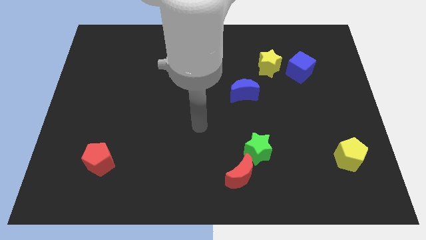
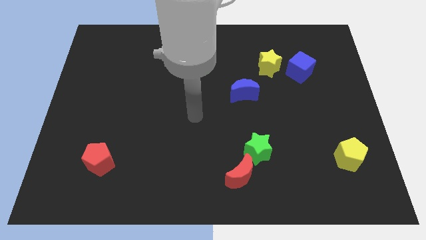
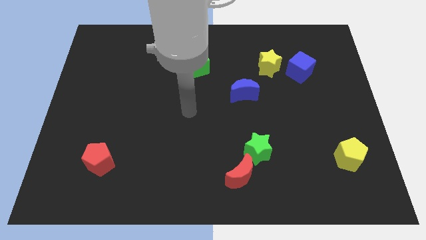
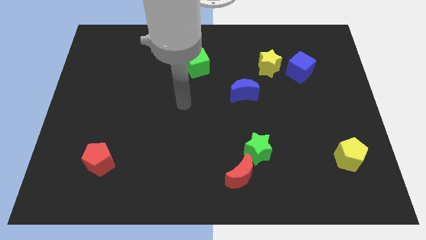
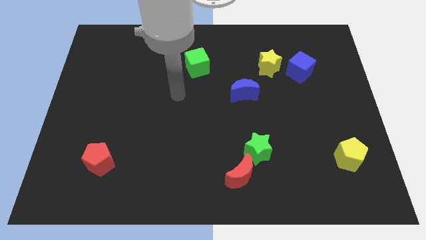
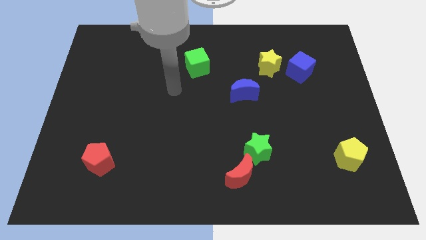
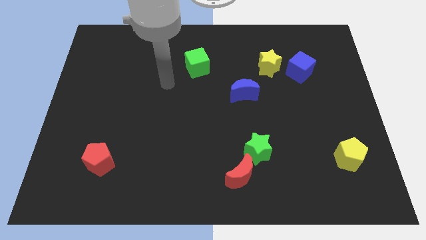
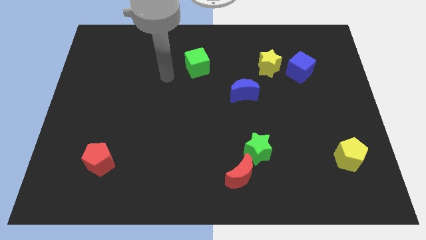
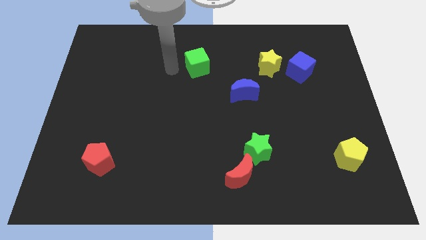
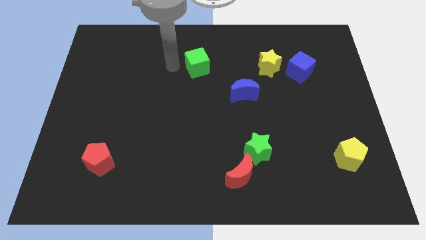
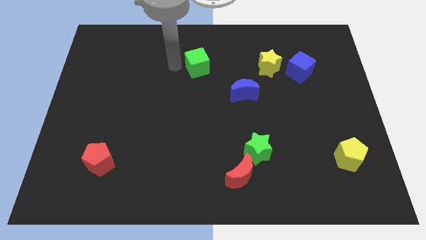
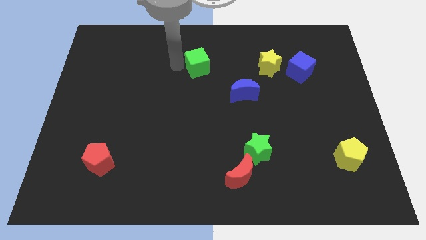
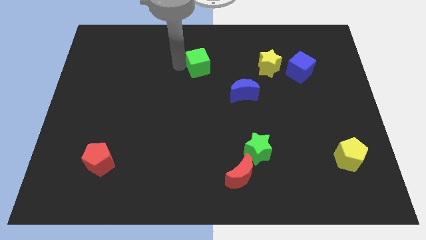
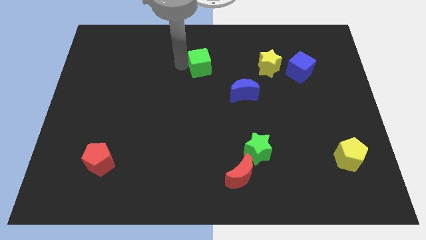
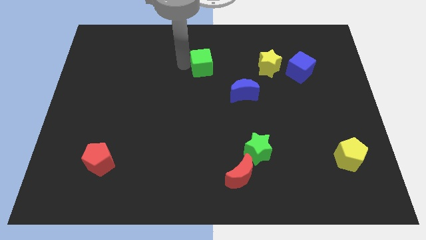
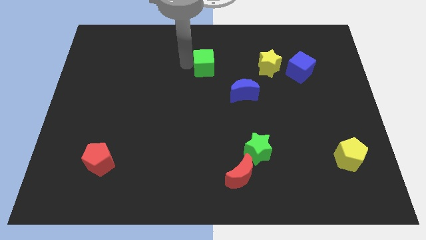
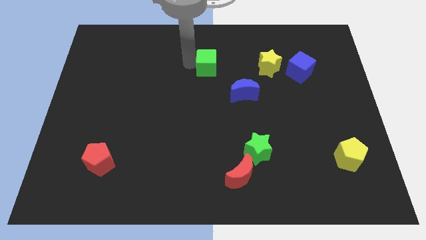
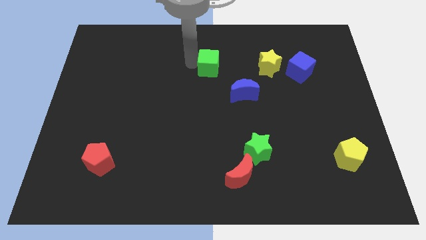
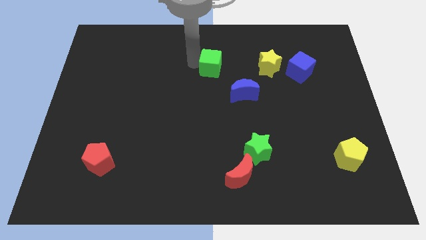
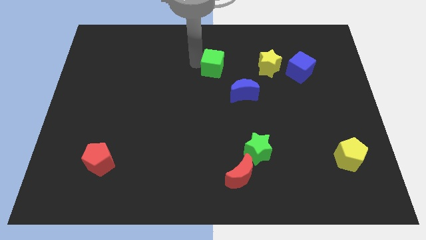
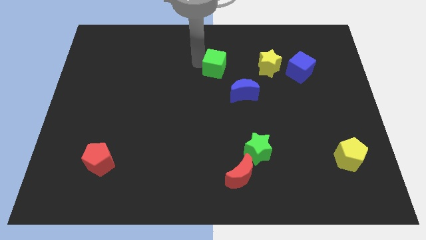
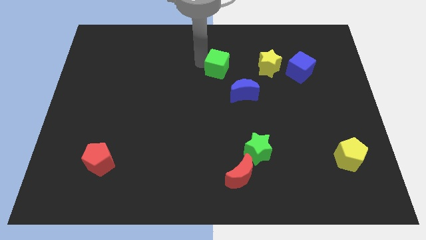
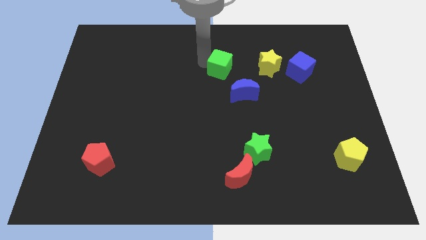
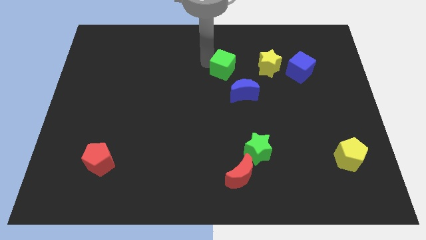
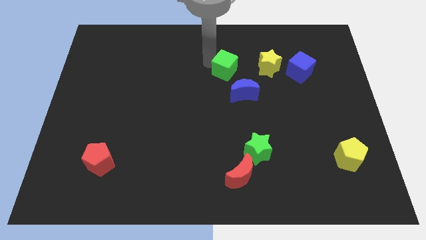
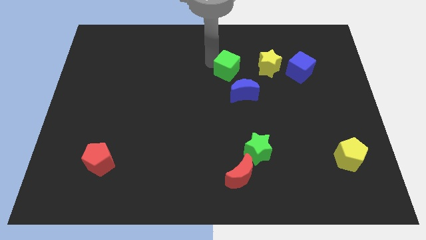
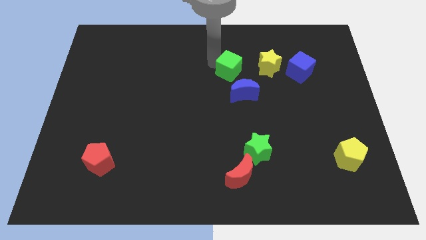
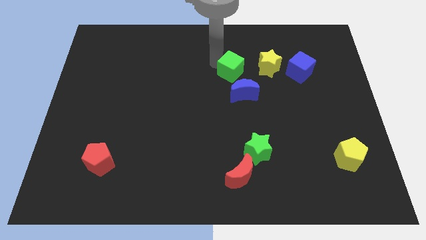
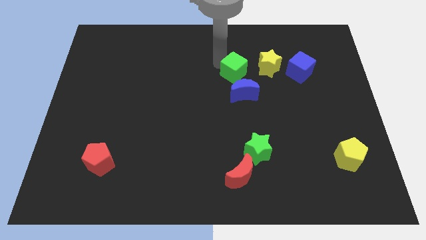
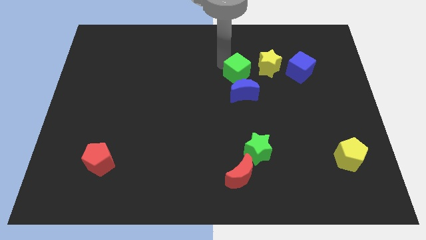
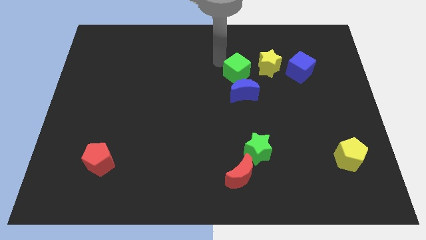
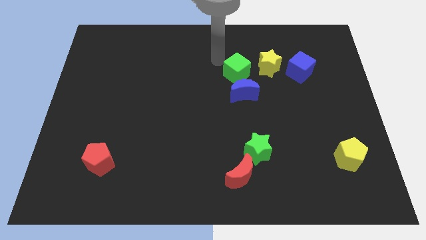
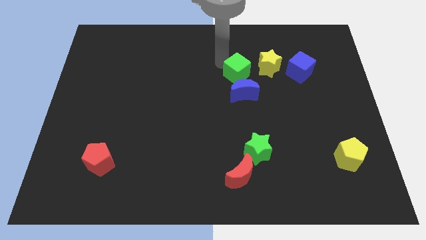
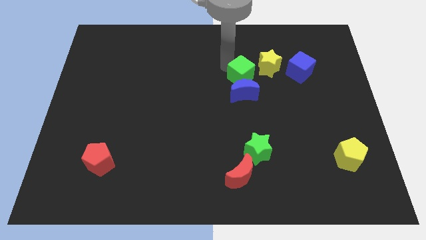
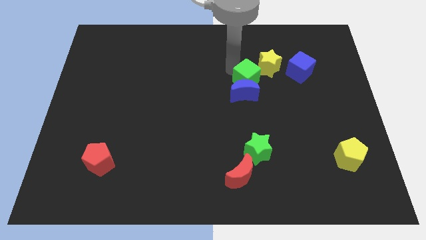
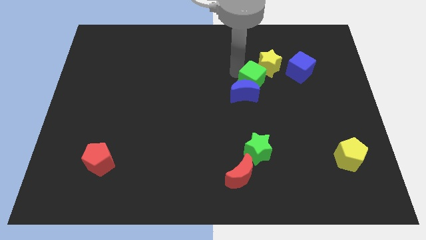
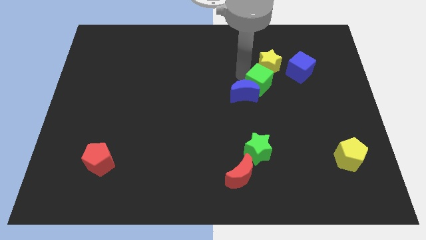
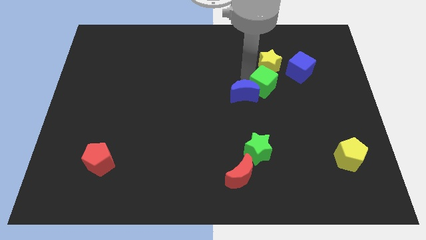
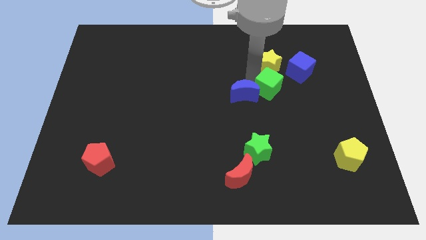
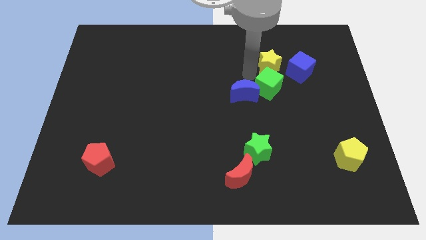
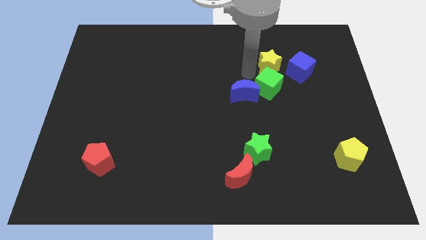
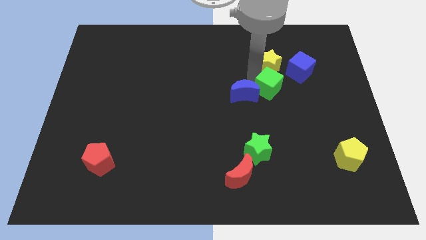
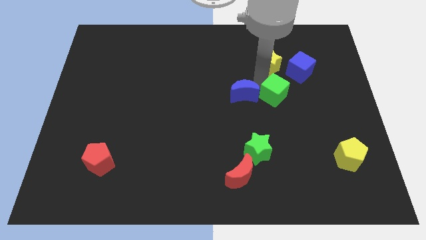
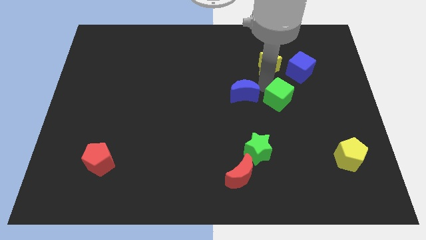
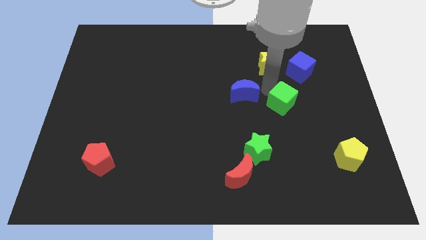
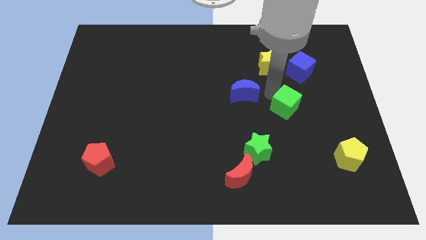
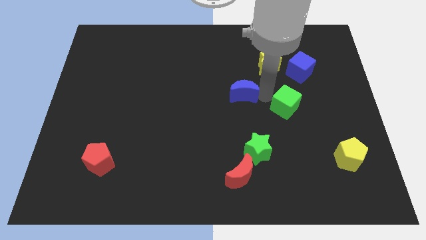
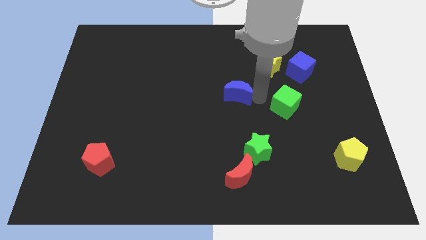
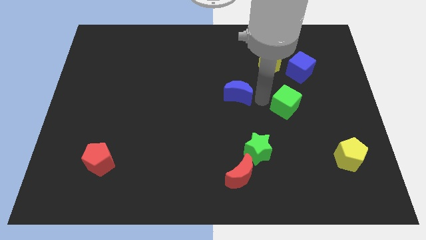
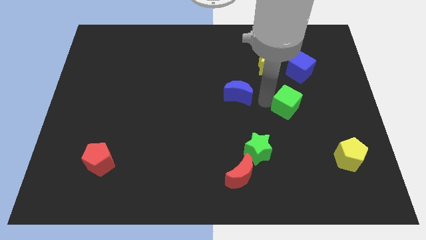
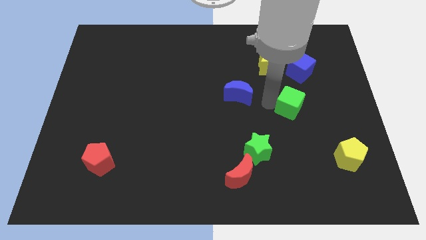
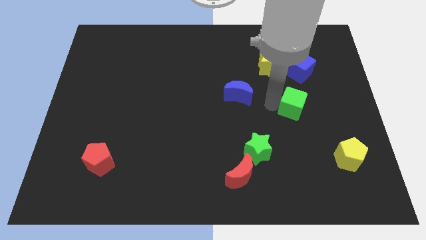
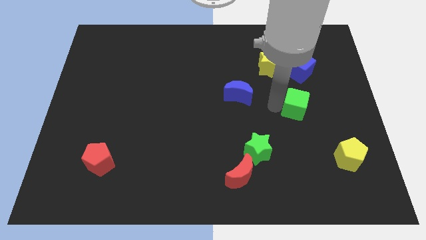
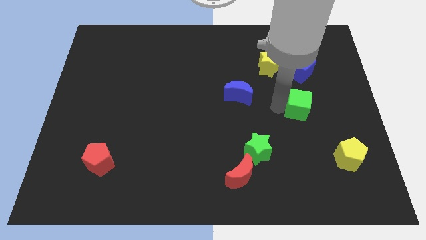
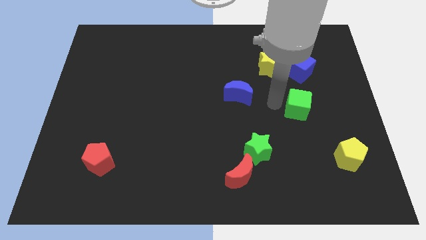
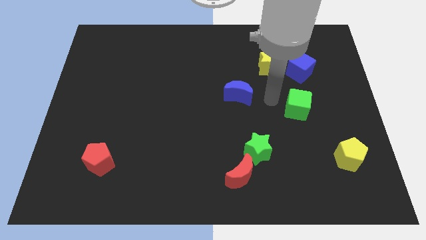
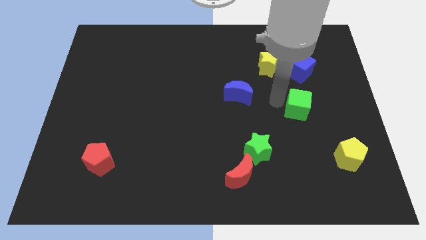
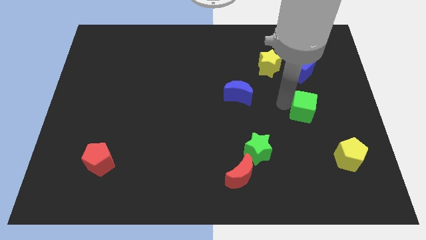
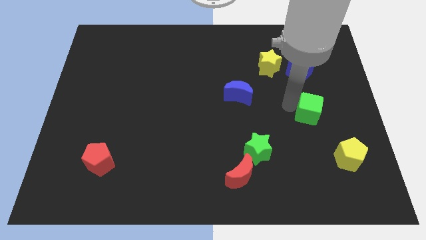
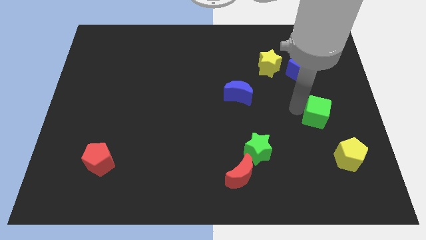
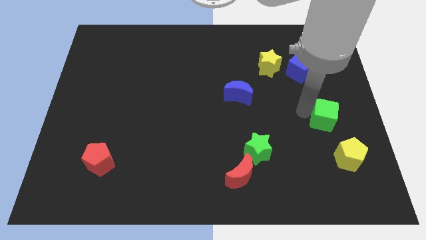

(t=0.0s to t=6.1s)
slide the green cube above the yellow pentagon

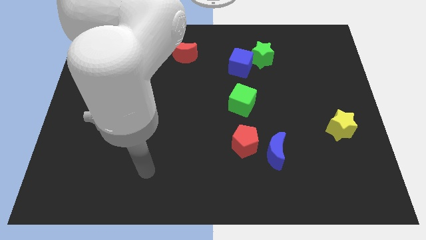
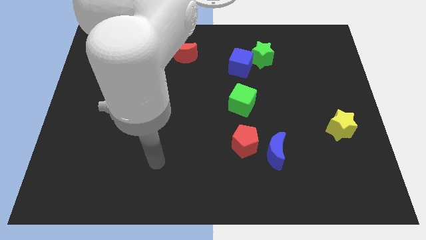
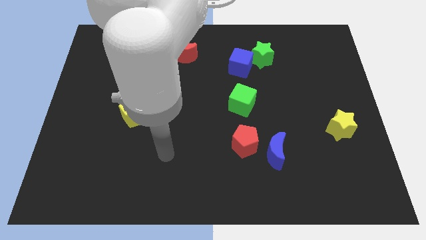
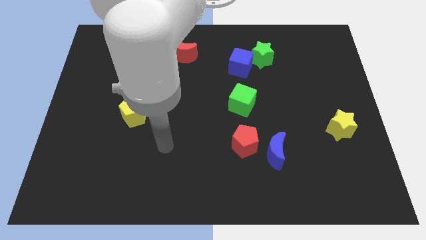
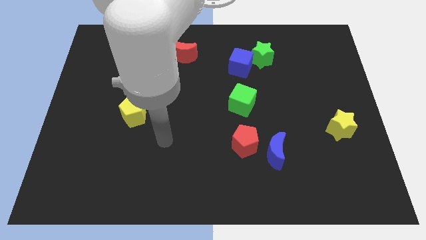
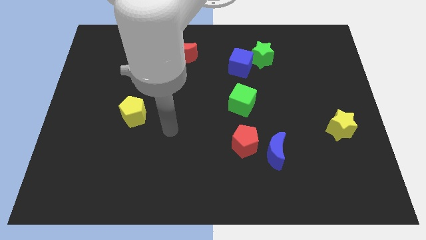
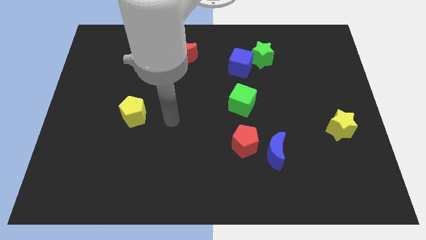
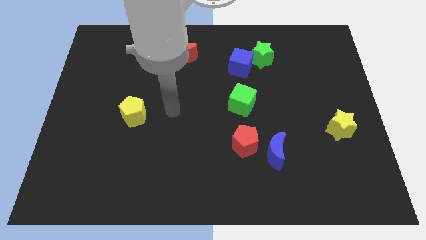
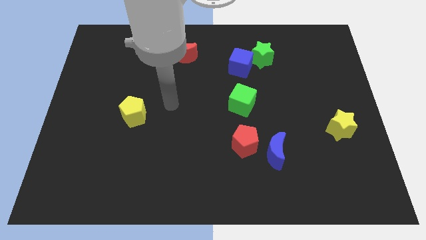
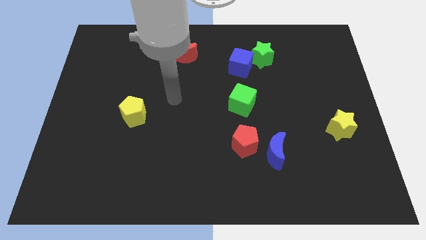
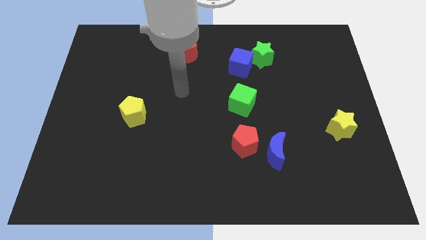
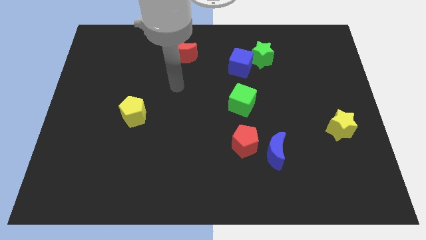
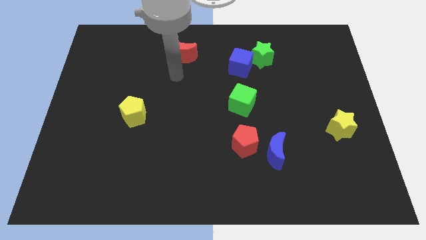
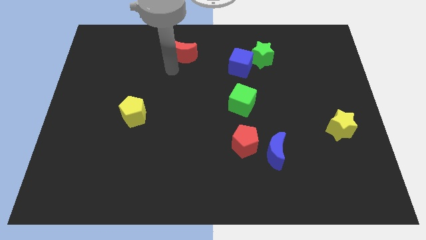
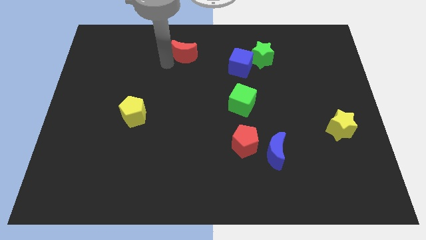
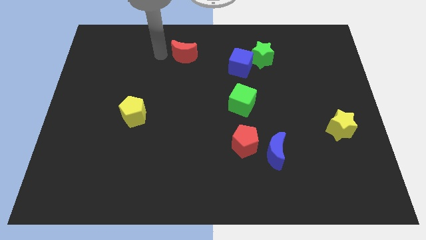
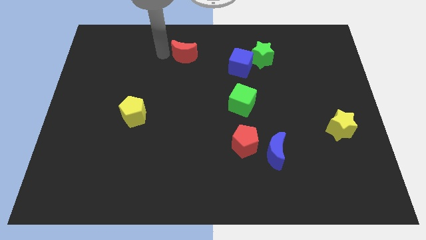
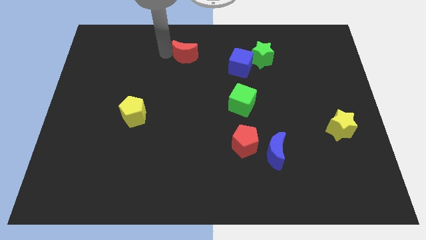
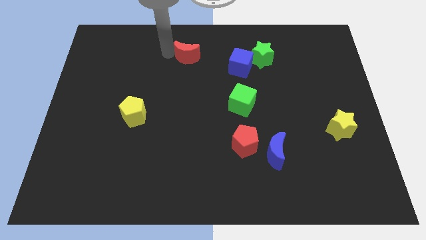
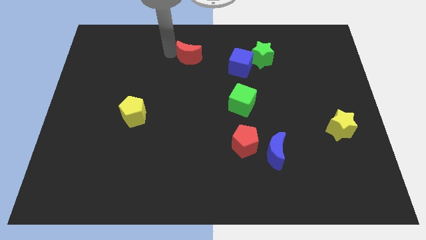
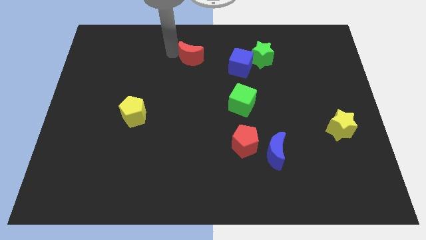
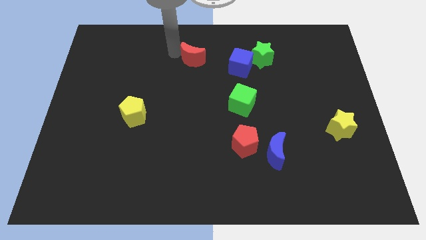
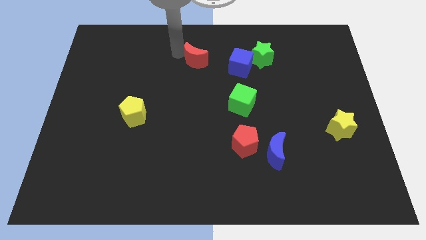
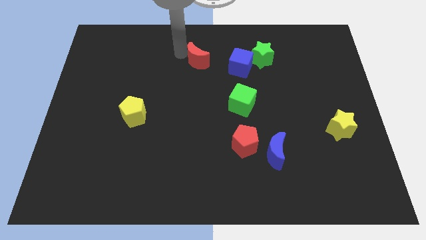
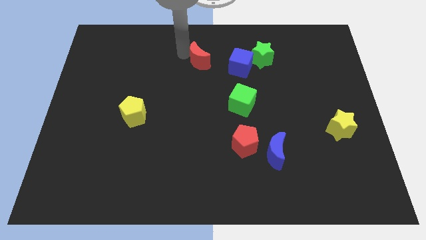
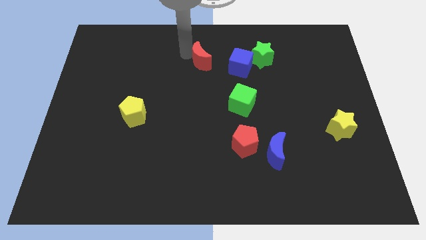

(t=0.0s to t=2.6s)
slide the red moon just left of the green star
